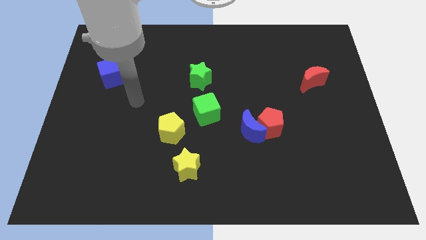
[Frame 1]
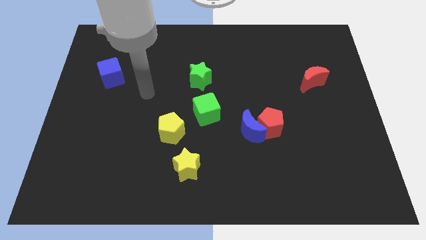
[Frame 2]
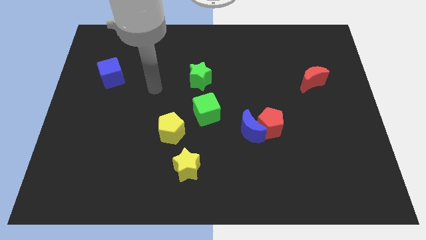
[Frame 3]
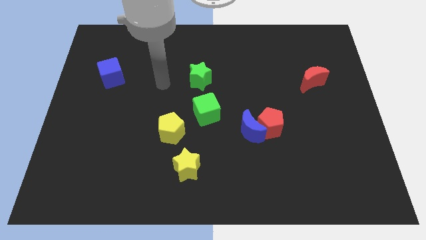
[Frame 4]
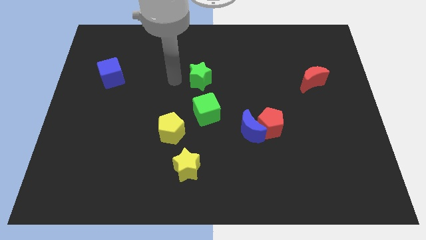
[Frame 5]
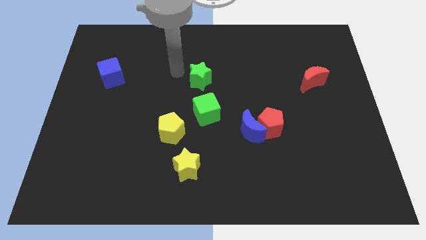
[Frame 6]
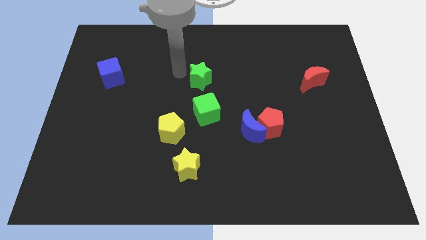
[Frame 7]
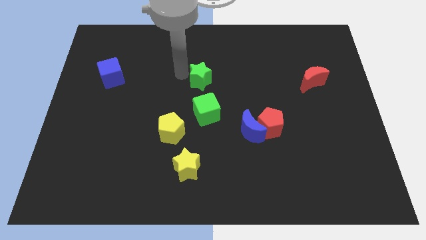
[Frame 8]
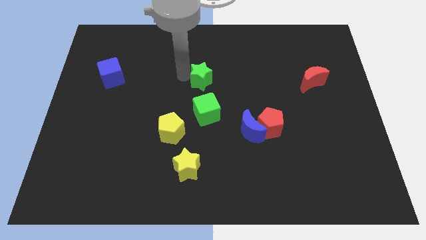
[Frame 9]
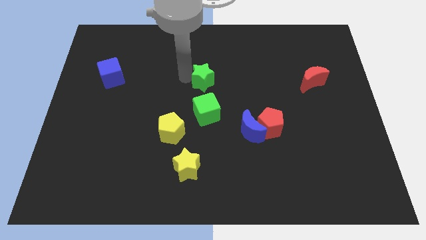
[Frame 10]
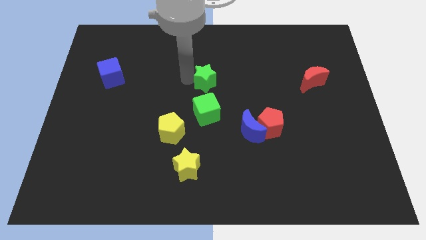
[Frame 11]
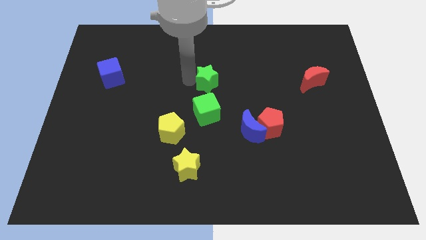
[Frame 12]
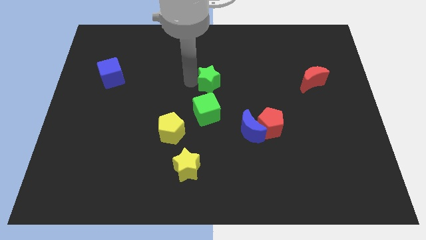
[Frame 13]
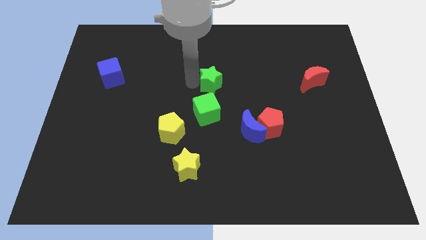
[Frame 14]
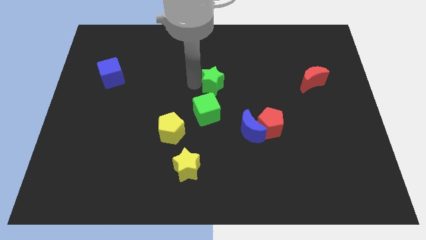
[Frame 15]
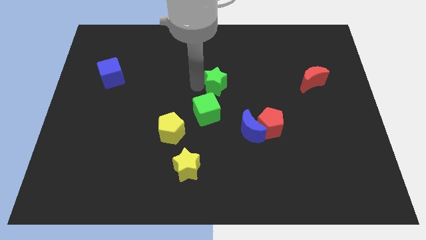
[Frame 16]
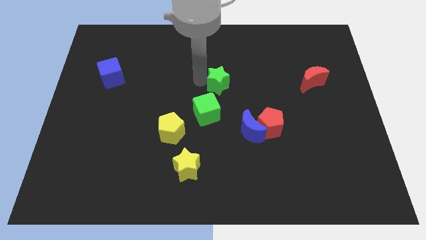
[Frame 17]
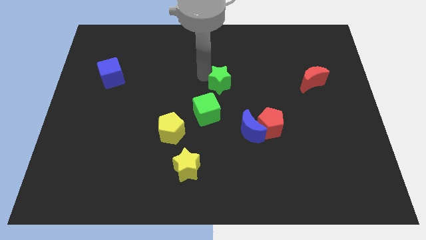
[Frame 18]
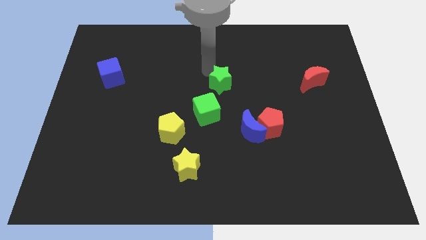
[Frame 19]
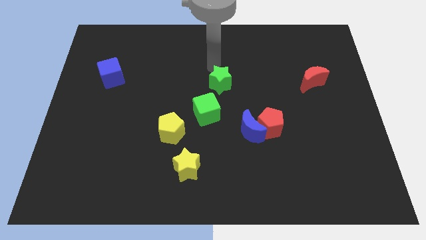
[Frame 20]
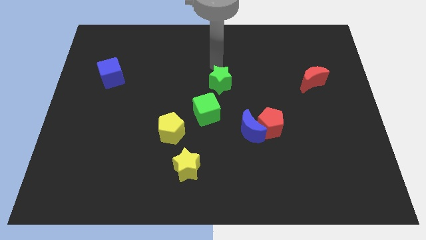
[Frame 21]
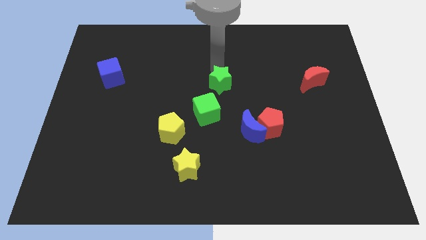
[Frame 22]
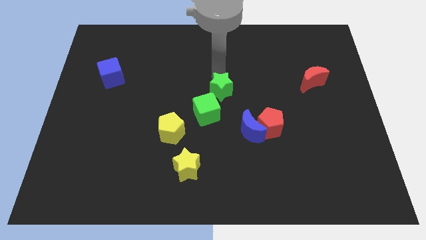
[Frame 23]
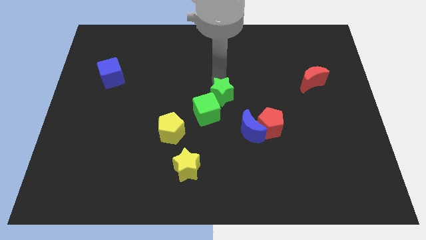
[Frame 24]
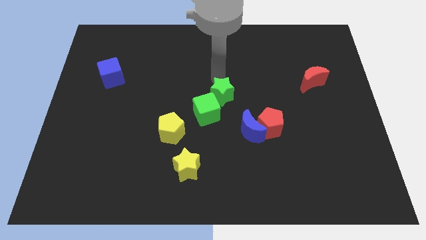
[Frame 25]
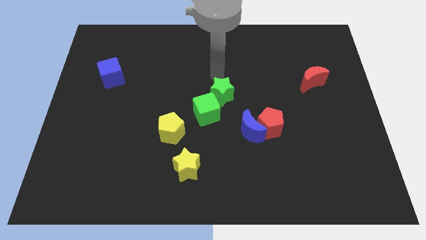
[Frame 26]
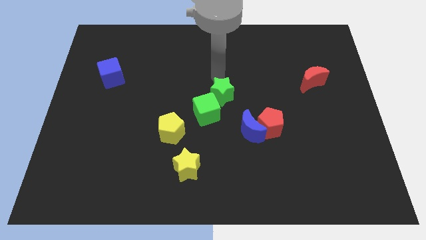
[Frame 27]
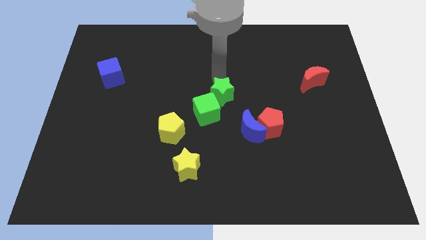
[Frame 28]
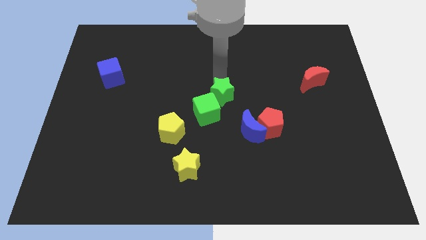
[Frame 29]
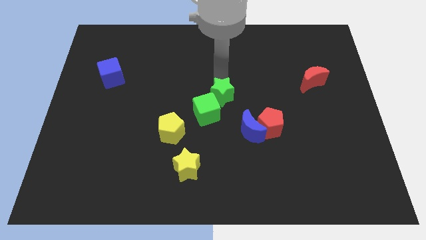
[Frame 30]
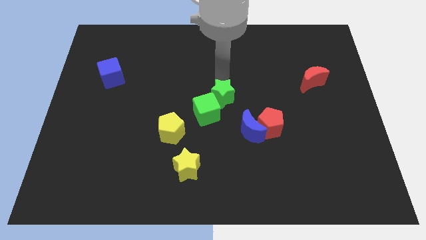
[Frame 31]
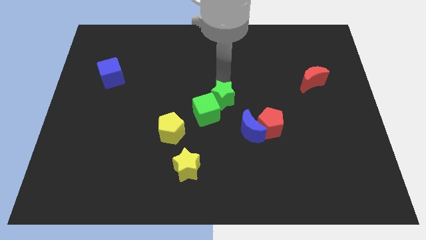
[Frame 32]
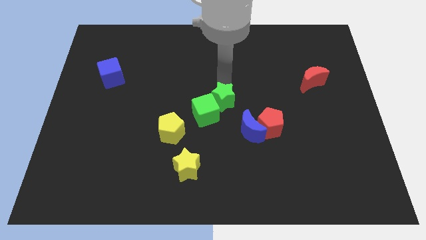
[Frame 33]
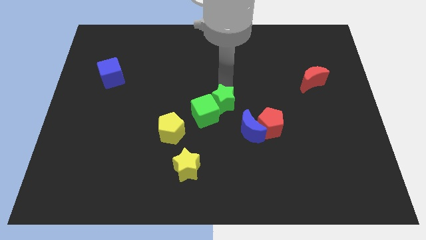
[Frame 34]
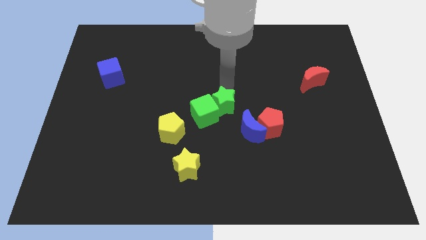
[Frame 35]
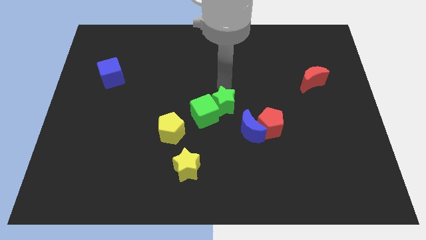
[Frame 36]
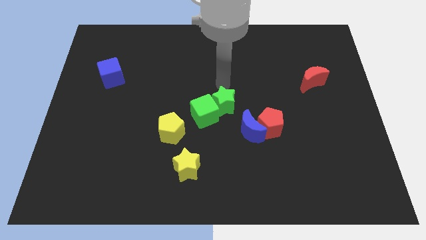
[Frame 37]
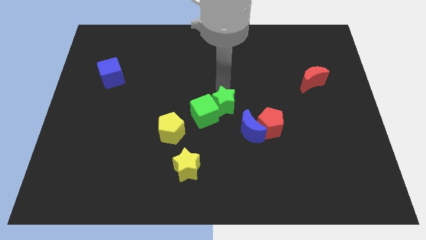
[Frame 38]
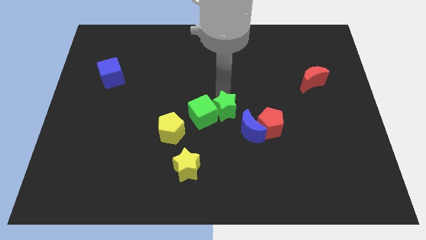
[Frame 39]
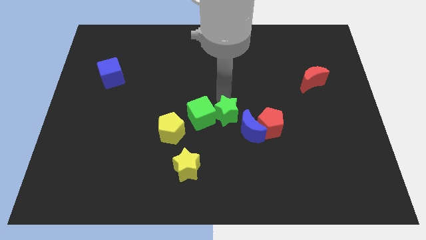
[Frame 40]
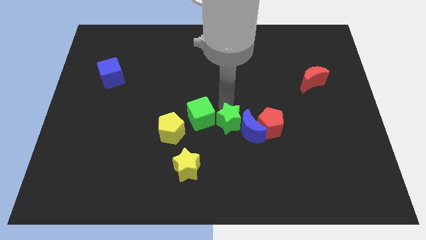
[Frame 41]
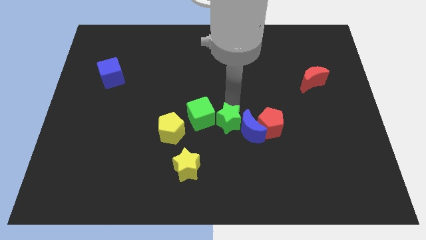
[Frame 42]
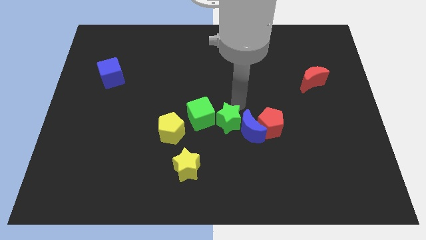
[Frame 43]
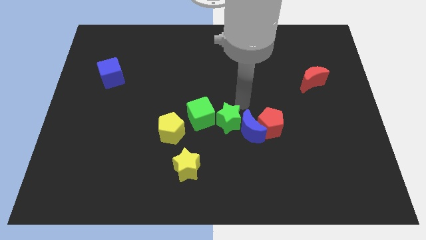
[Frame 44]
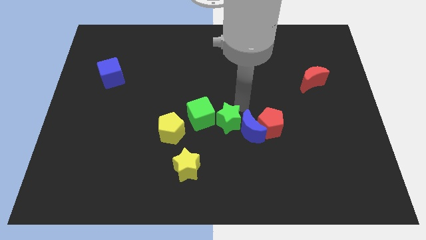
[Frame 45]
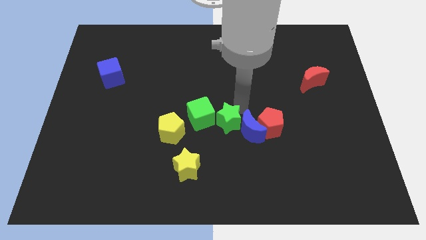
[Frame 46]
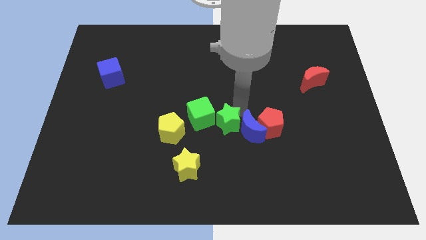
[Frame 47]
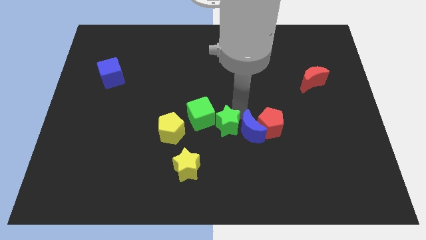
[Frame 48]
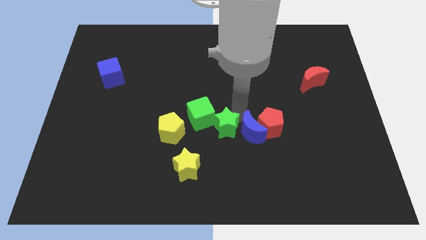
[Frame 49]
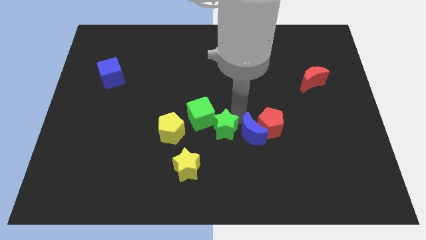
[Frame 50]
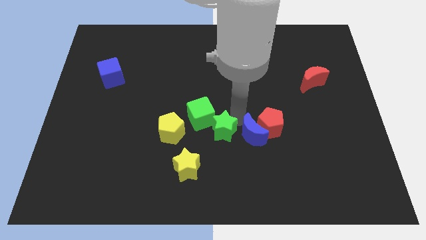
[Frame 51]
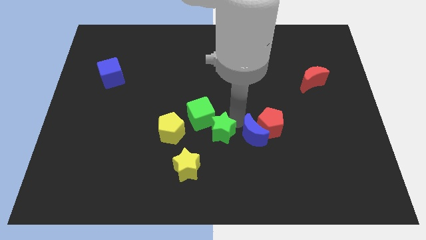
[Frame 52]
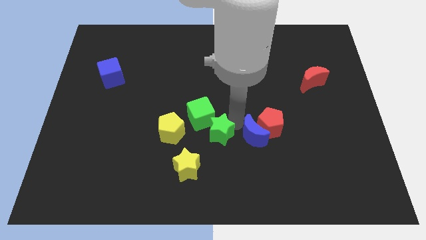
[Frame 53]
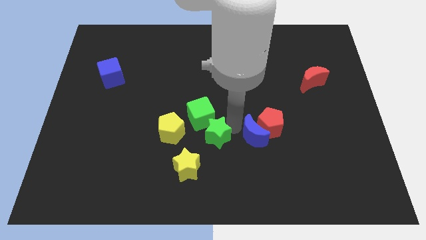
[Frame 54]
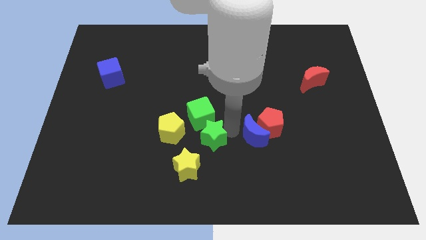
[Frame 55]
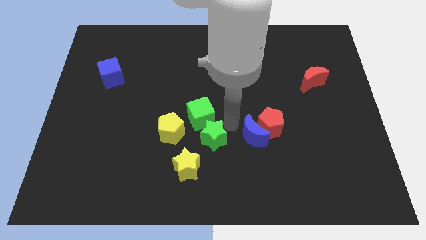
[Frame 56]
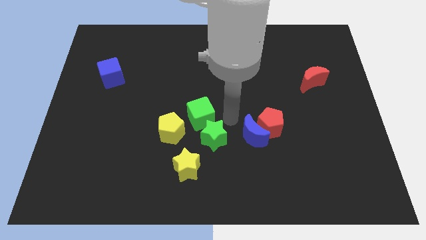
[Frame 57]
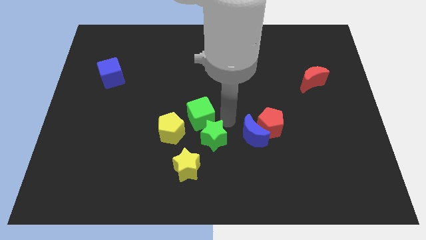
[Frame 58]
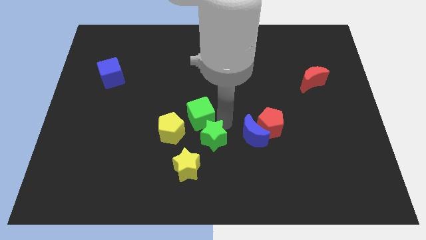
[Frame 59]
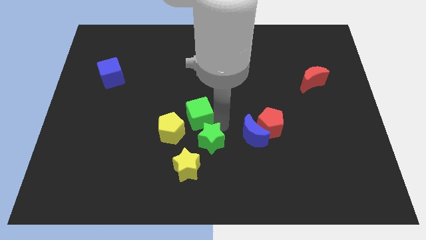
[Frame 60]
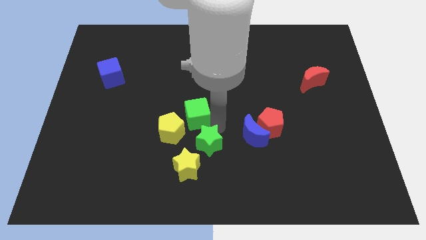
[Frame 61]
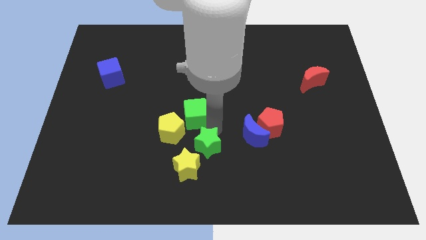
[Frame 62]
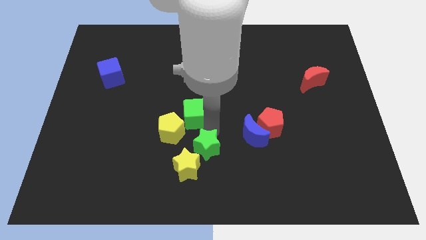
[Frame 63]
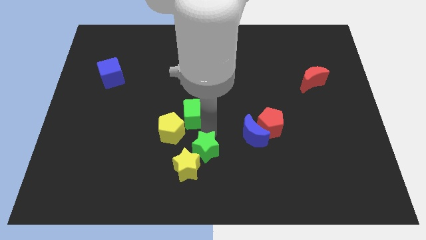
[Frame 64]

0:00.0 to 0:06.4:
push the green star next to the yellow star
